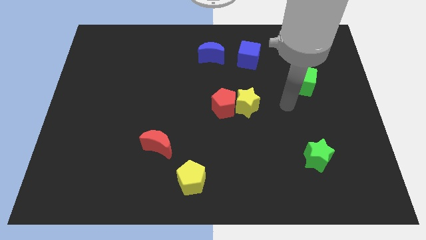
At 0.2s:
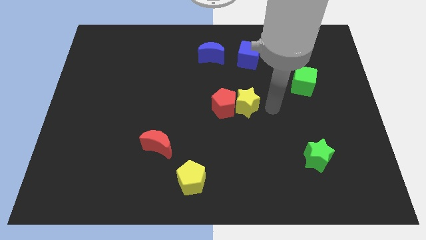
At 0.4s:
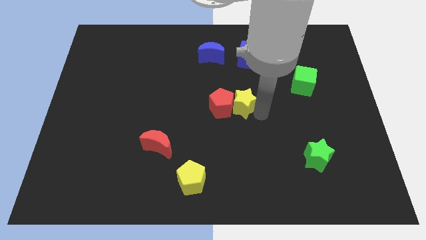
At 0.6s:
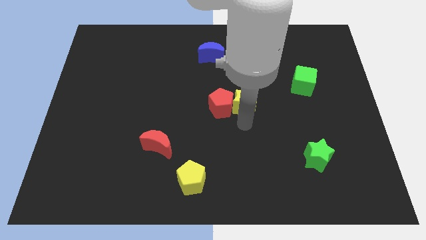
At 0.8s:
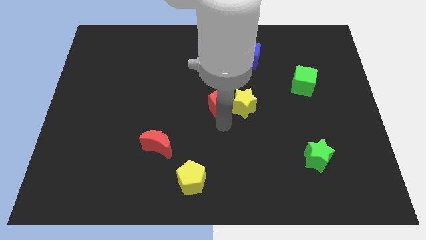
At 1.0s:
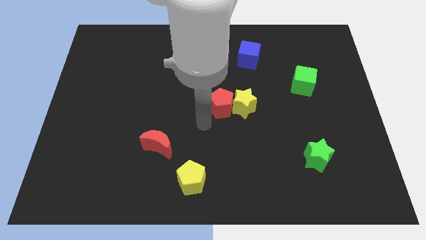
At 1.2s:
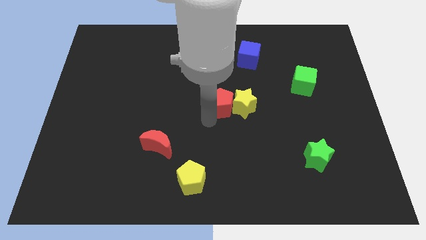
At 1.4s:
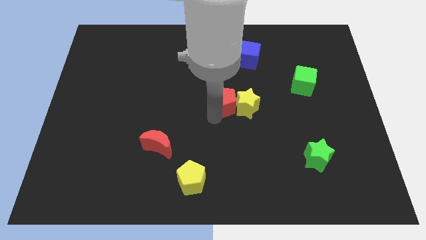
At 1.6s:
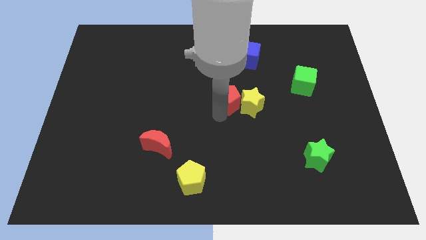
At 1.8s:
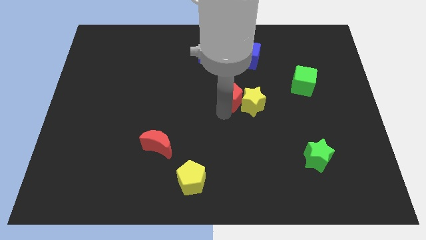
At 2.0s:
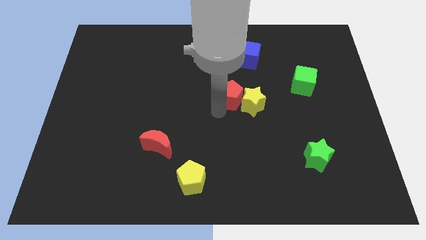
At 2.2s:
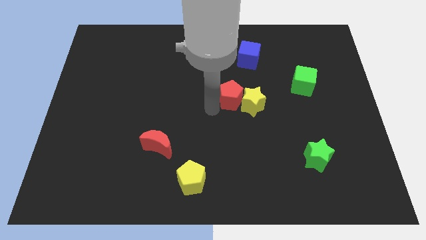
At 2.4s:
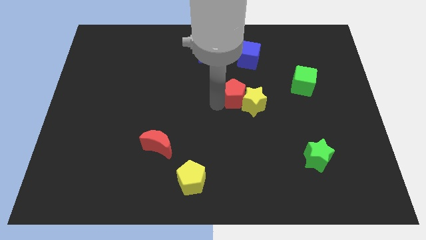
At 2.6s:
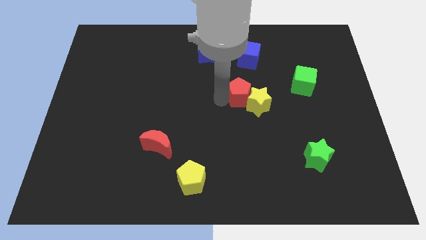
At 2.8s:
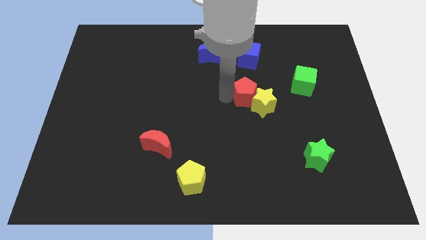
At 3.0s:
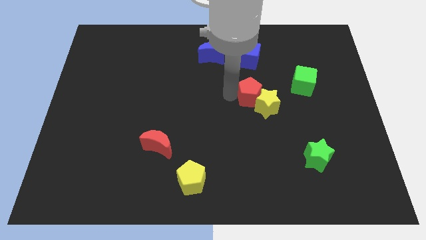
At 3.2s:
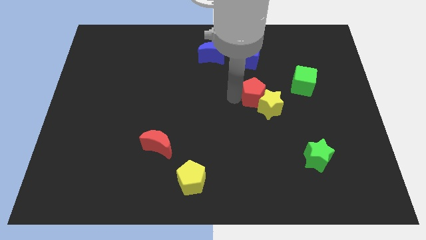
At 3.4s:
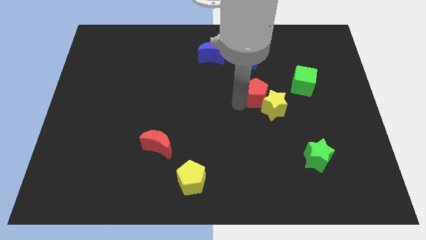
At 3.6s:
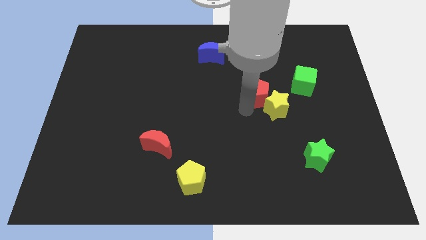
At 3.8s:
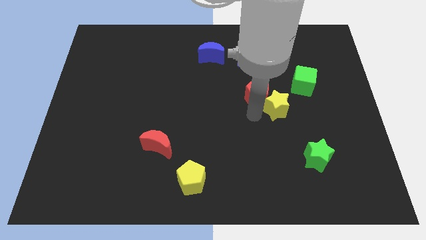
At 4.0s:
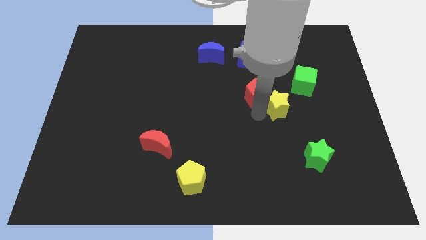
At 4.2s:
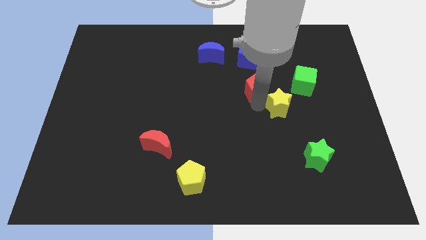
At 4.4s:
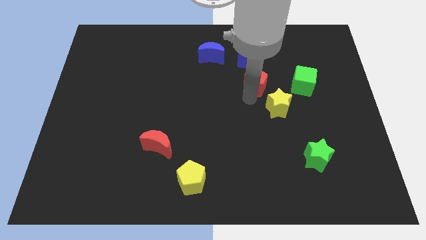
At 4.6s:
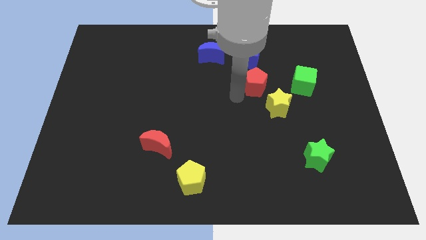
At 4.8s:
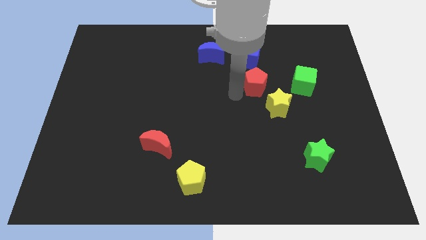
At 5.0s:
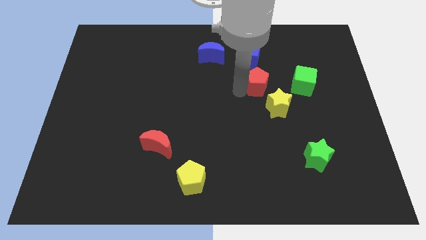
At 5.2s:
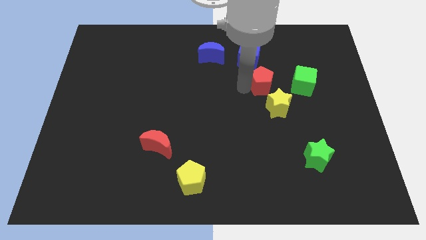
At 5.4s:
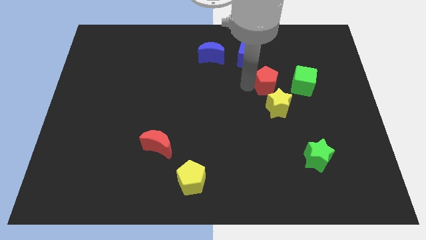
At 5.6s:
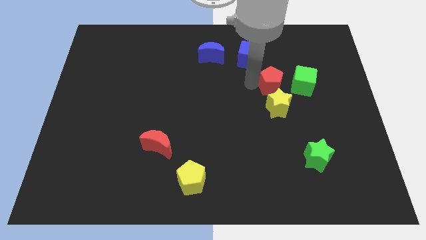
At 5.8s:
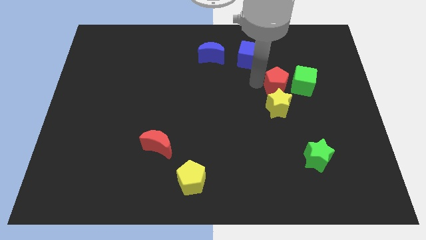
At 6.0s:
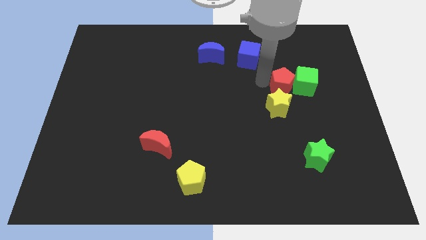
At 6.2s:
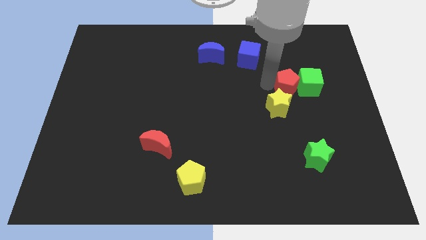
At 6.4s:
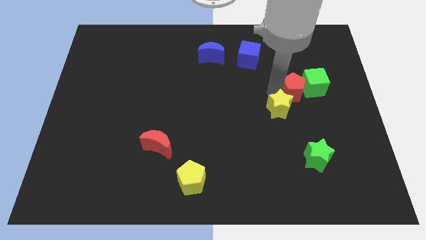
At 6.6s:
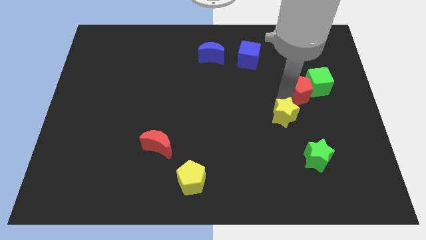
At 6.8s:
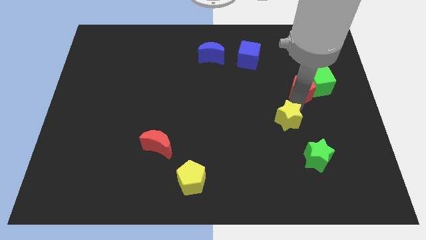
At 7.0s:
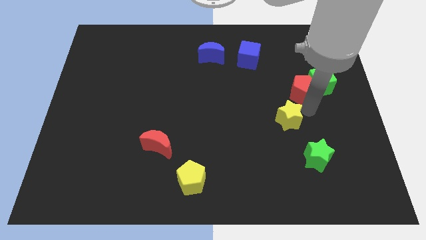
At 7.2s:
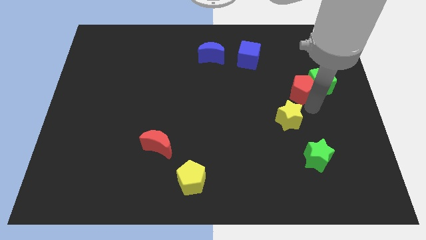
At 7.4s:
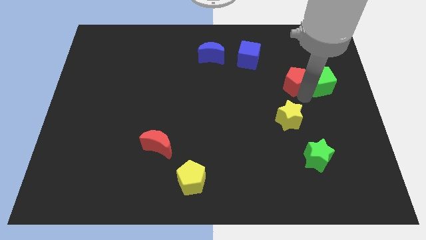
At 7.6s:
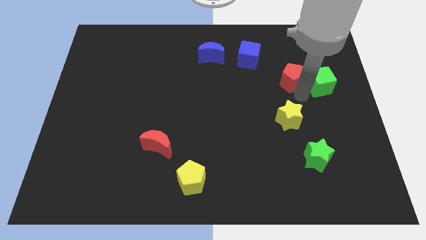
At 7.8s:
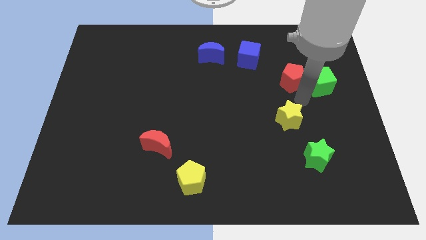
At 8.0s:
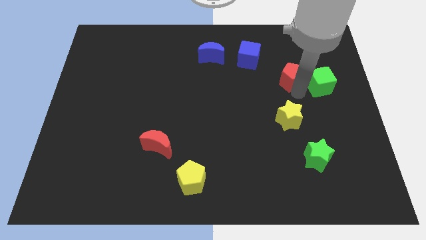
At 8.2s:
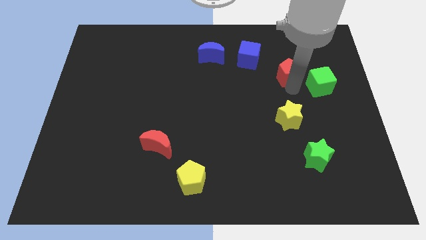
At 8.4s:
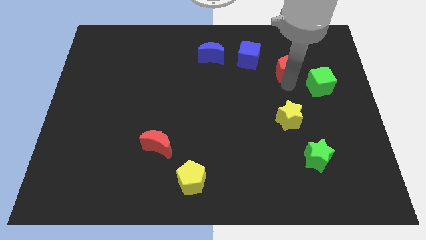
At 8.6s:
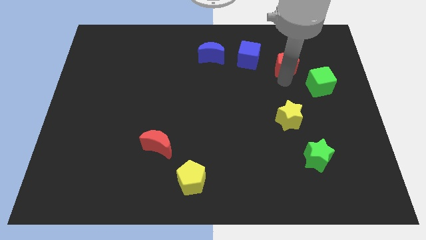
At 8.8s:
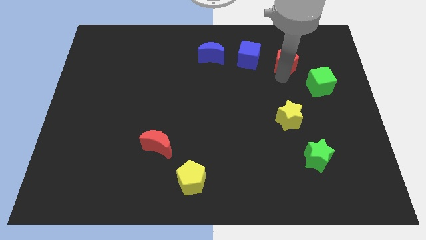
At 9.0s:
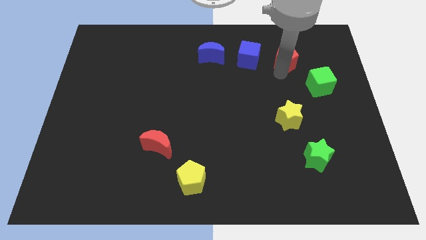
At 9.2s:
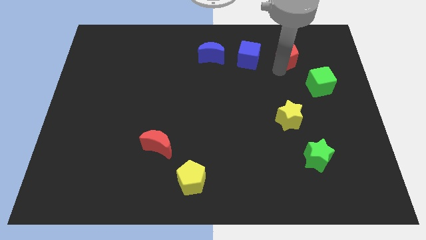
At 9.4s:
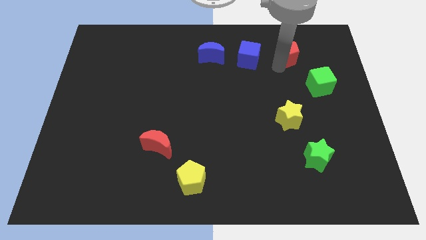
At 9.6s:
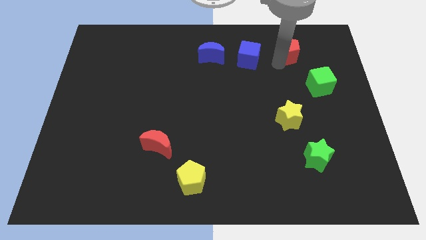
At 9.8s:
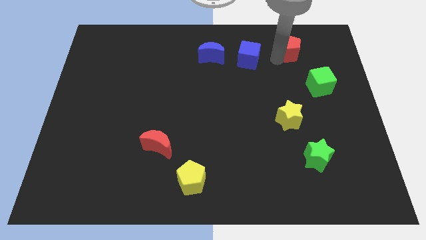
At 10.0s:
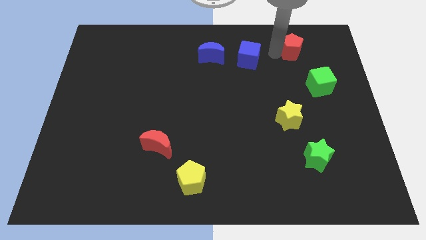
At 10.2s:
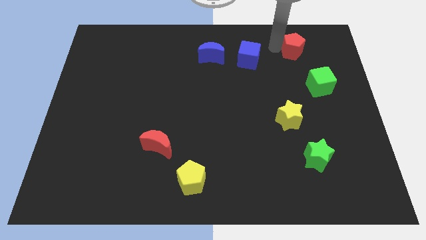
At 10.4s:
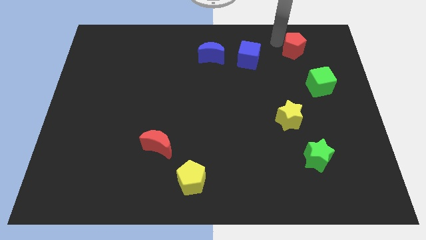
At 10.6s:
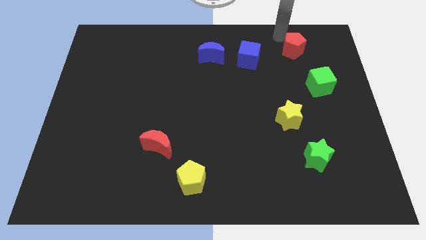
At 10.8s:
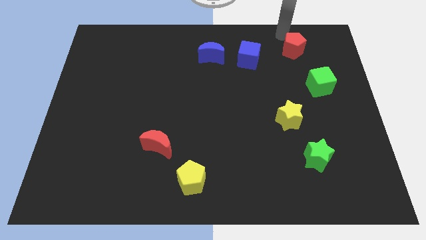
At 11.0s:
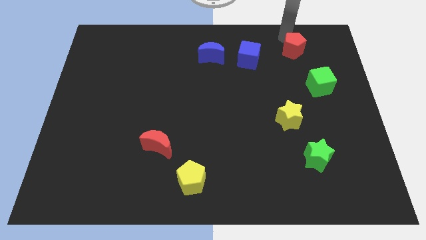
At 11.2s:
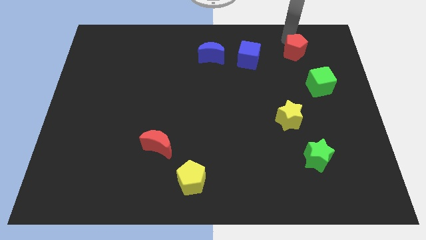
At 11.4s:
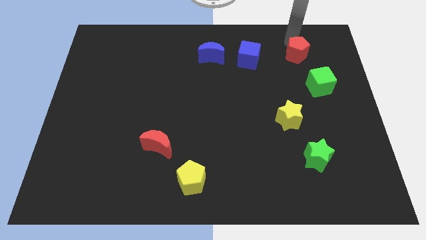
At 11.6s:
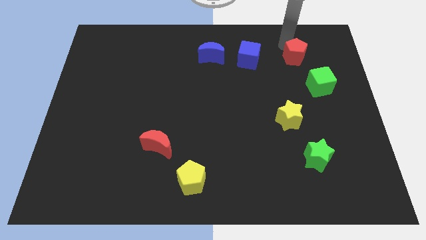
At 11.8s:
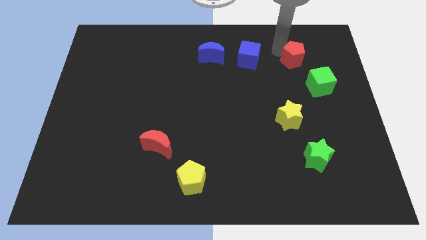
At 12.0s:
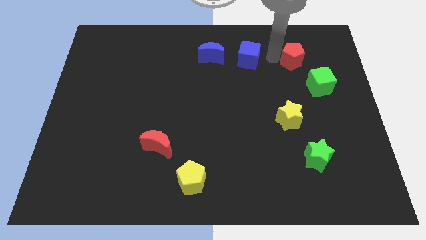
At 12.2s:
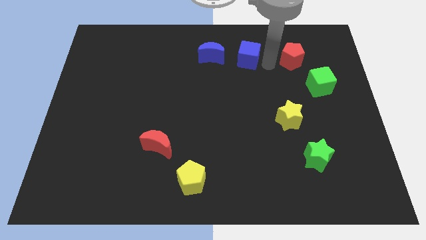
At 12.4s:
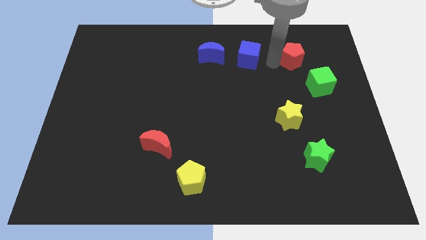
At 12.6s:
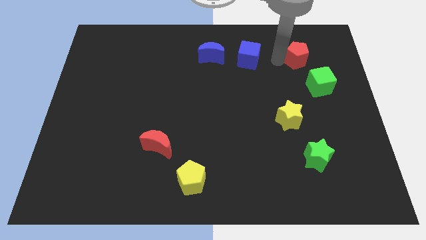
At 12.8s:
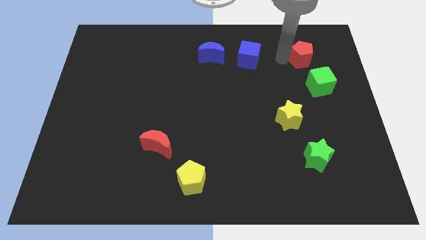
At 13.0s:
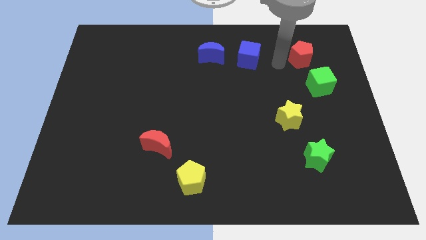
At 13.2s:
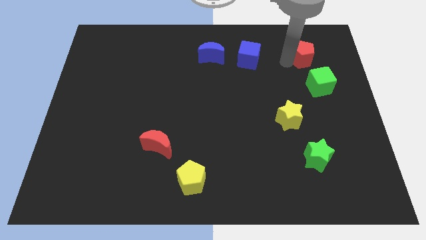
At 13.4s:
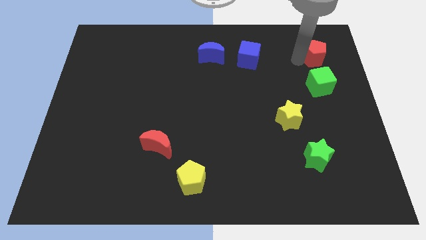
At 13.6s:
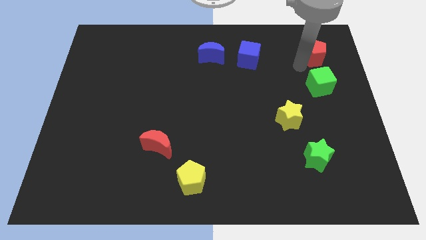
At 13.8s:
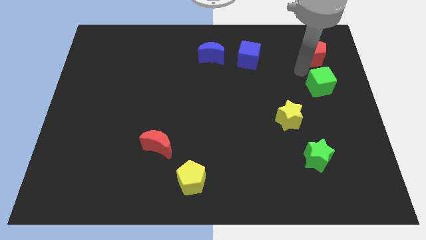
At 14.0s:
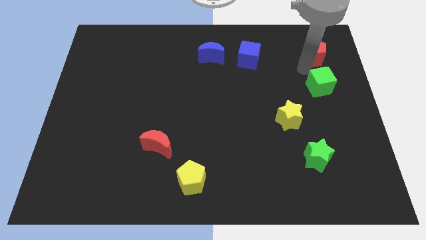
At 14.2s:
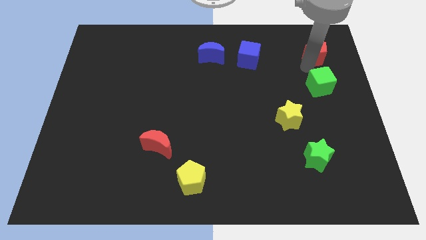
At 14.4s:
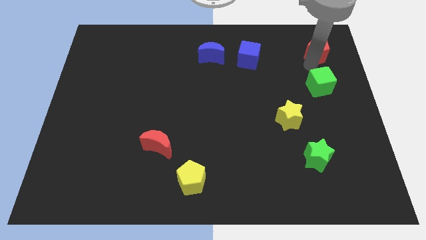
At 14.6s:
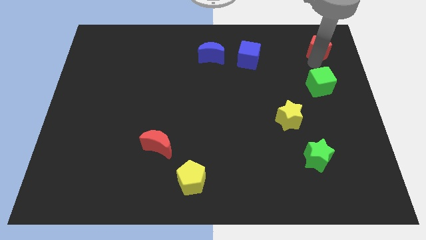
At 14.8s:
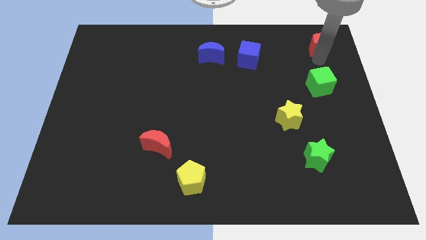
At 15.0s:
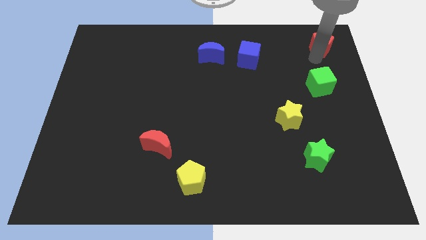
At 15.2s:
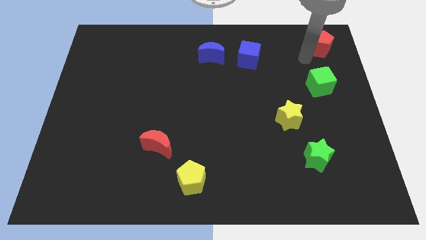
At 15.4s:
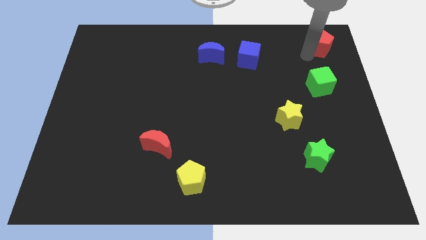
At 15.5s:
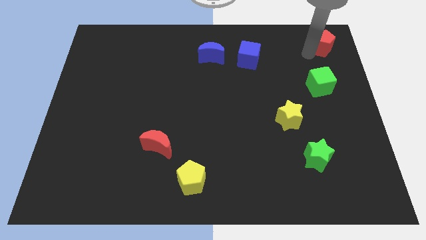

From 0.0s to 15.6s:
move the red pentagon to the upper right corner
